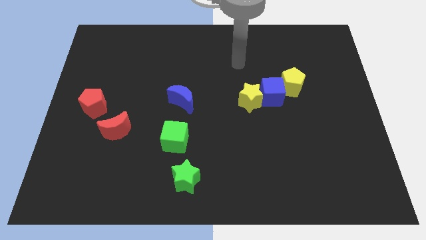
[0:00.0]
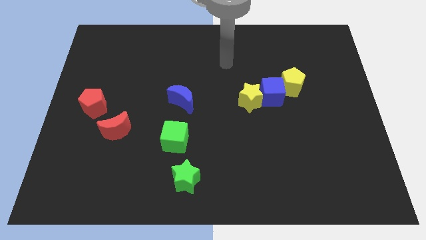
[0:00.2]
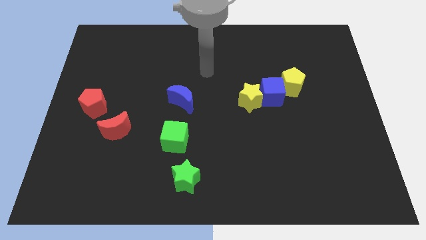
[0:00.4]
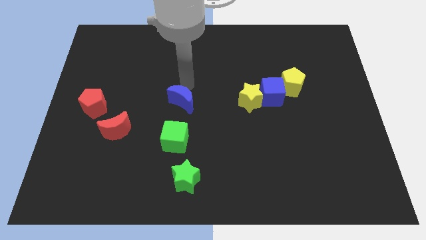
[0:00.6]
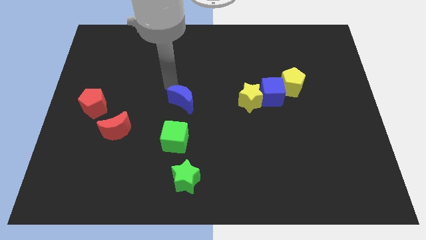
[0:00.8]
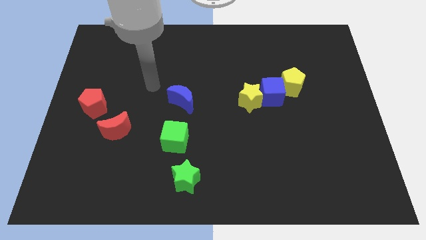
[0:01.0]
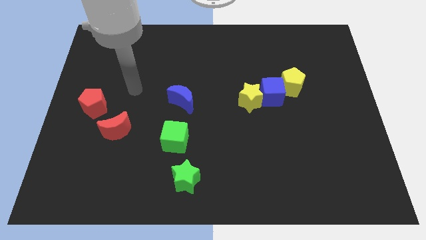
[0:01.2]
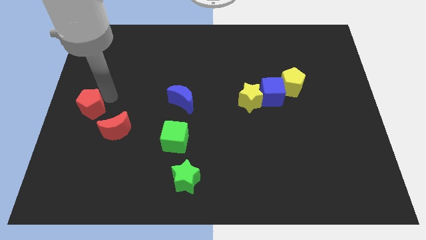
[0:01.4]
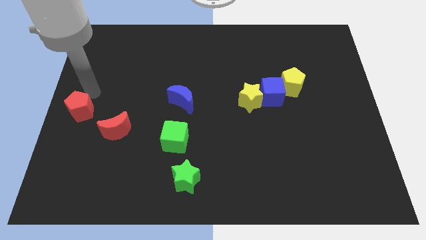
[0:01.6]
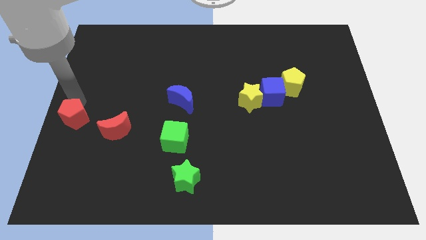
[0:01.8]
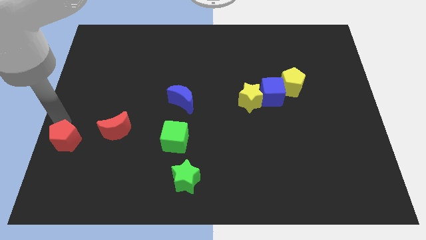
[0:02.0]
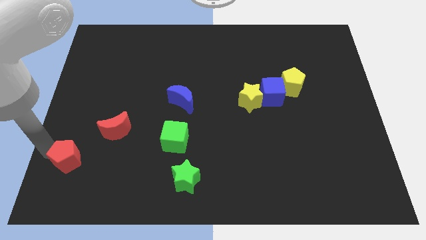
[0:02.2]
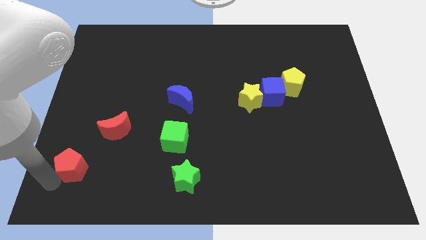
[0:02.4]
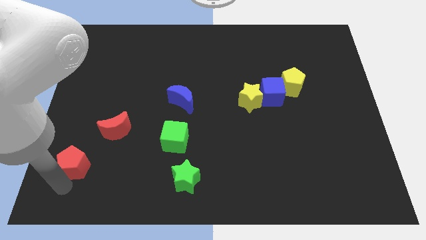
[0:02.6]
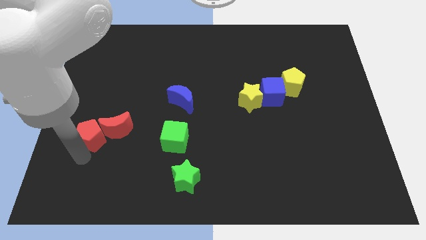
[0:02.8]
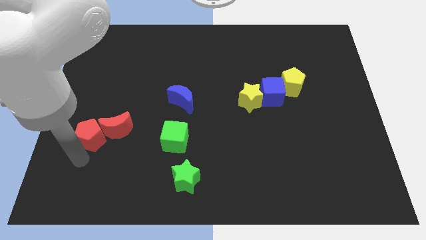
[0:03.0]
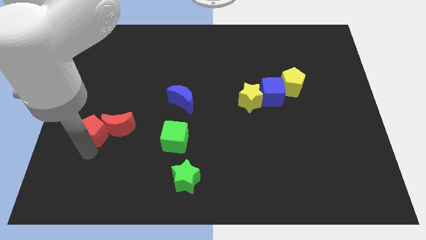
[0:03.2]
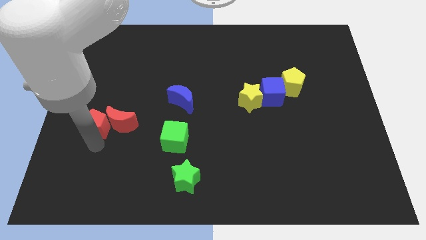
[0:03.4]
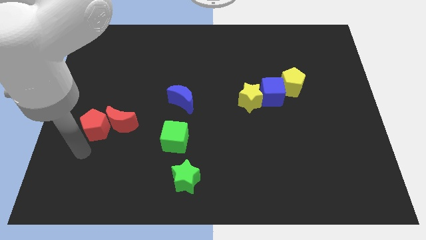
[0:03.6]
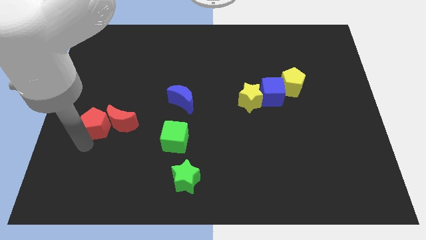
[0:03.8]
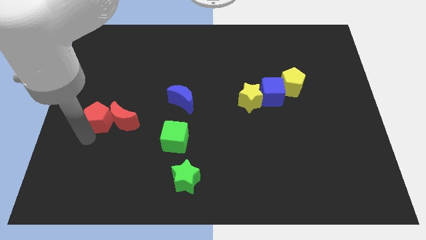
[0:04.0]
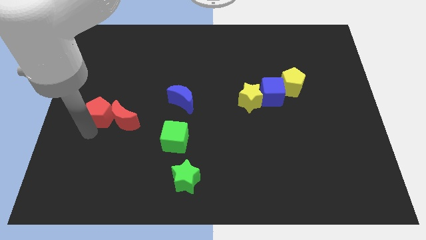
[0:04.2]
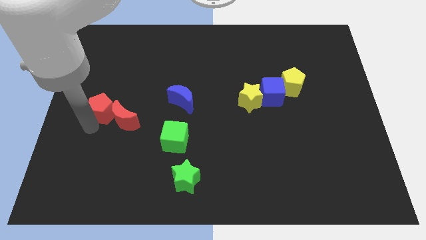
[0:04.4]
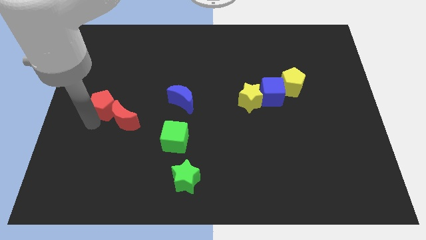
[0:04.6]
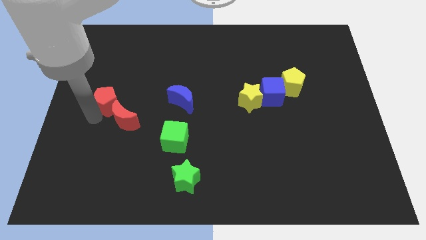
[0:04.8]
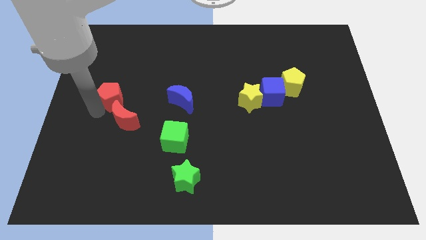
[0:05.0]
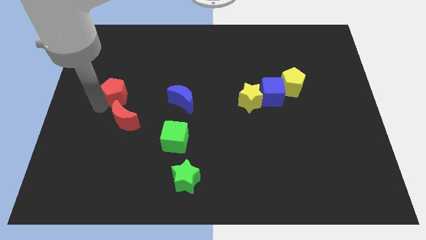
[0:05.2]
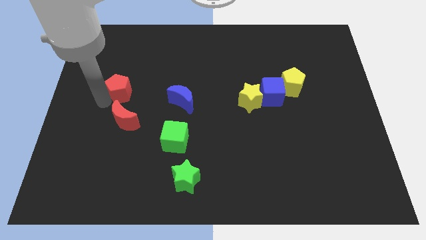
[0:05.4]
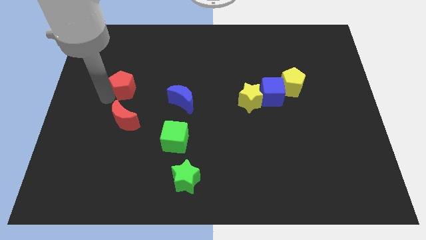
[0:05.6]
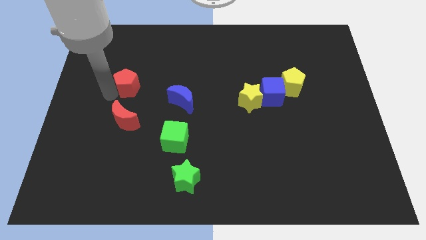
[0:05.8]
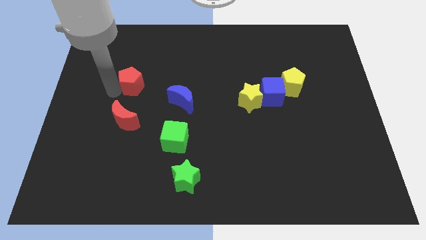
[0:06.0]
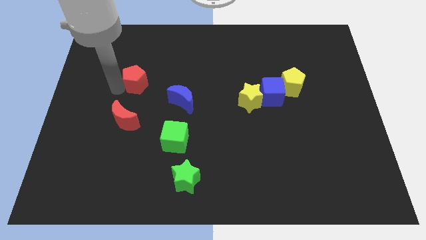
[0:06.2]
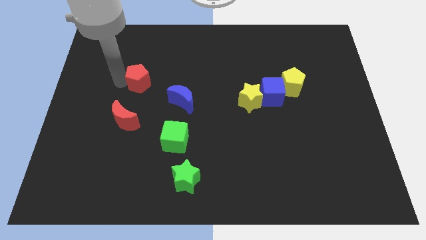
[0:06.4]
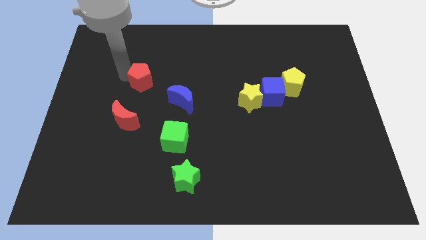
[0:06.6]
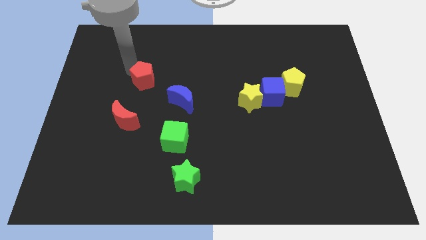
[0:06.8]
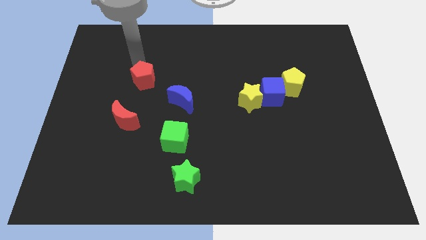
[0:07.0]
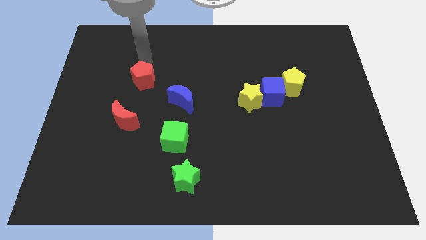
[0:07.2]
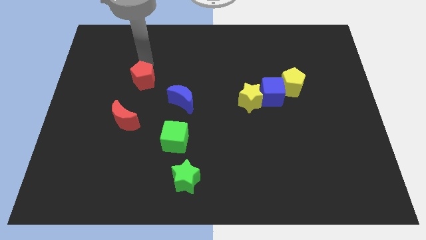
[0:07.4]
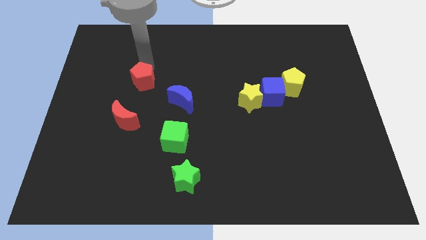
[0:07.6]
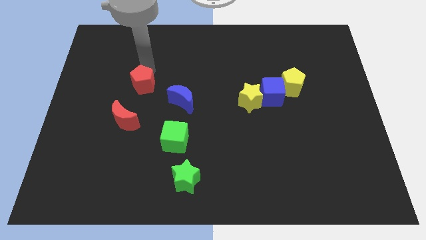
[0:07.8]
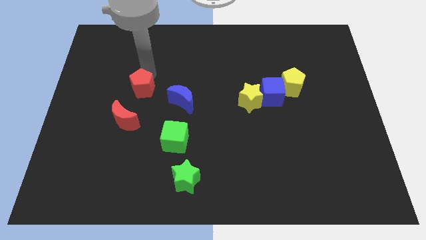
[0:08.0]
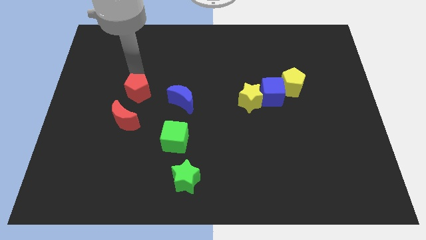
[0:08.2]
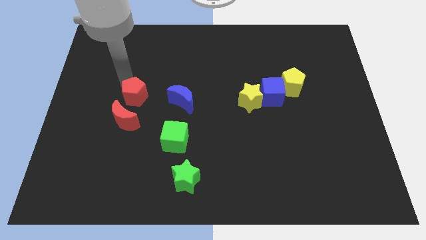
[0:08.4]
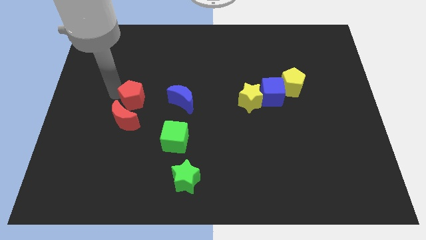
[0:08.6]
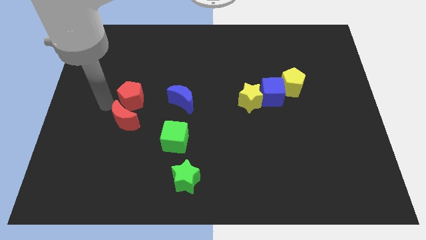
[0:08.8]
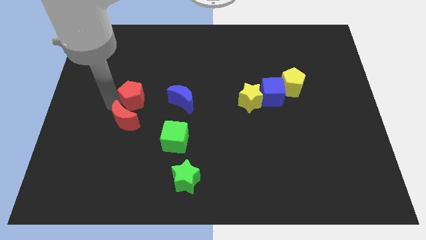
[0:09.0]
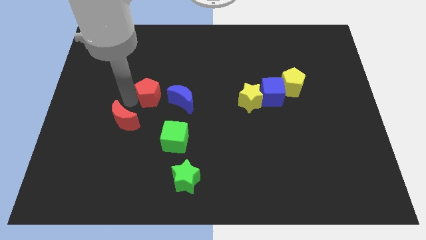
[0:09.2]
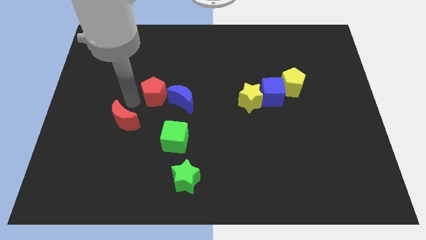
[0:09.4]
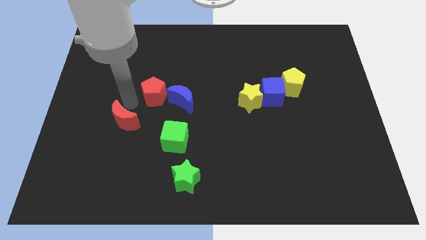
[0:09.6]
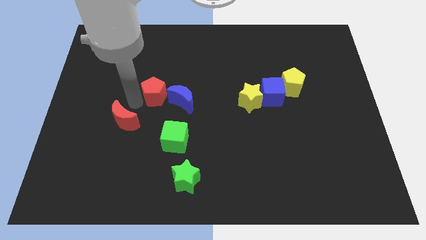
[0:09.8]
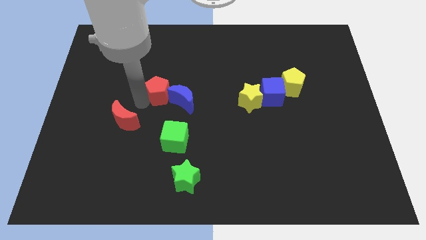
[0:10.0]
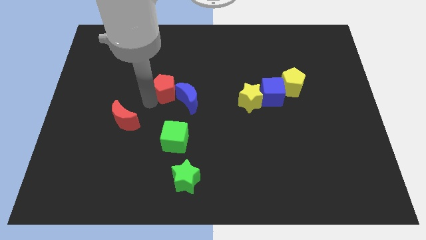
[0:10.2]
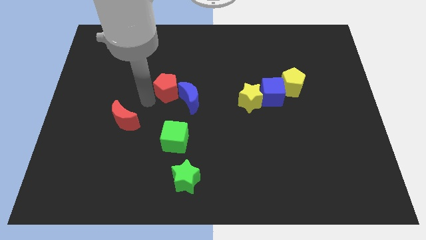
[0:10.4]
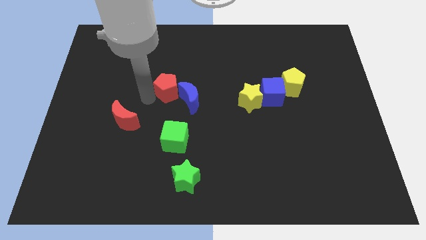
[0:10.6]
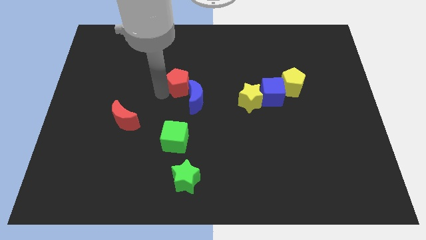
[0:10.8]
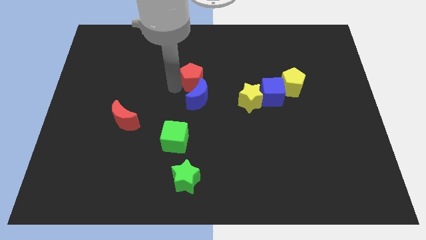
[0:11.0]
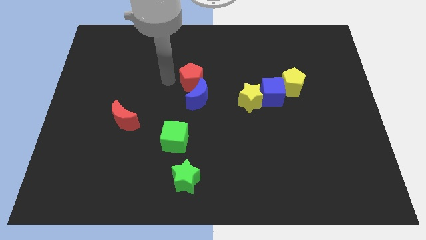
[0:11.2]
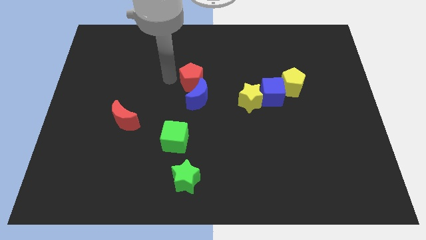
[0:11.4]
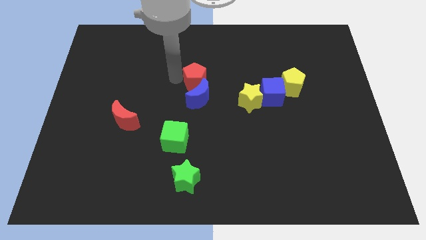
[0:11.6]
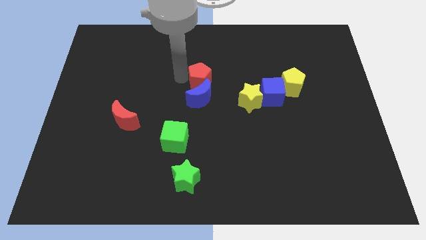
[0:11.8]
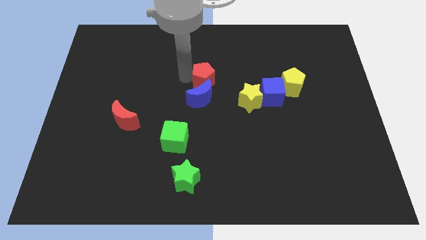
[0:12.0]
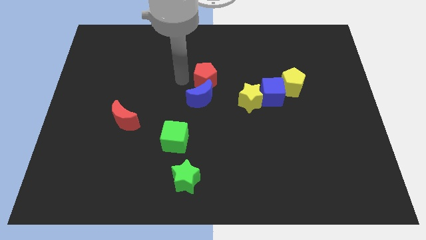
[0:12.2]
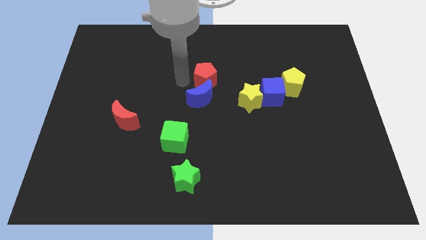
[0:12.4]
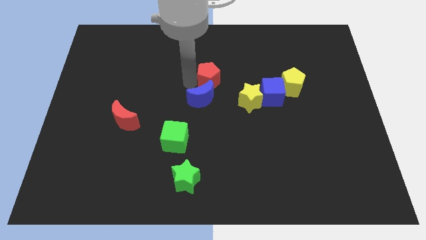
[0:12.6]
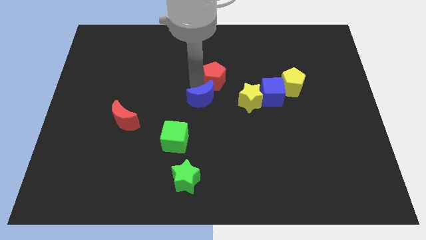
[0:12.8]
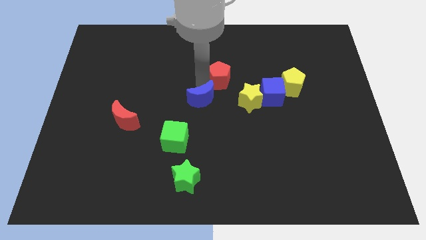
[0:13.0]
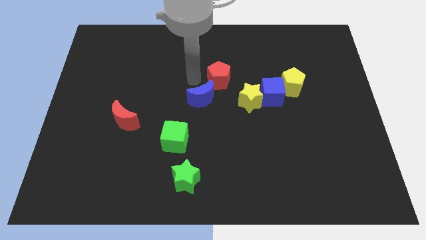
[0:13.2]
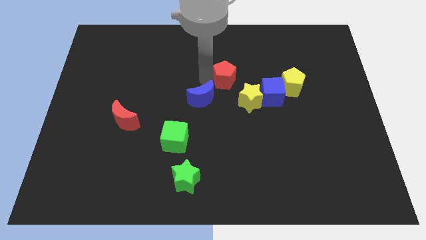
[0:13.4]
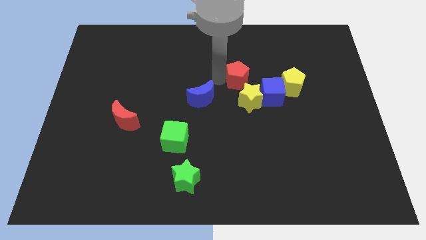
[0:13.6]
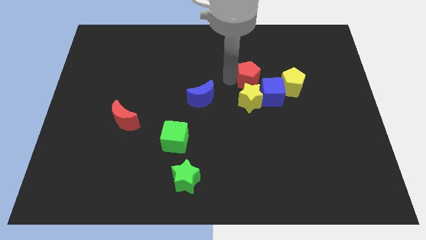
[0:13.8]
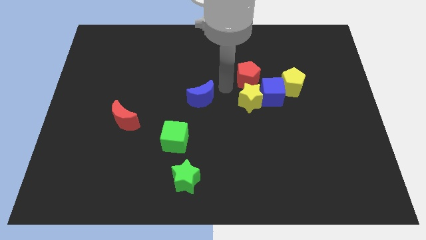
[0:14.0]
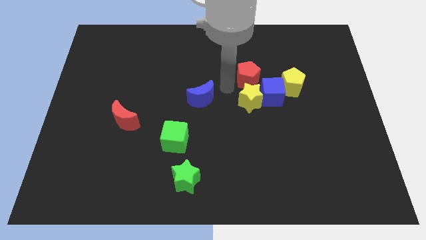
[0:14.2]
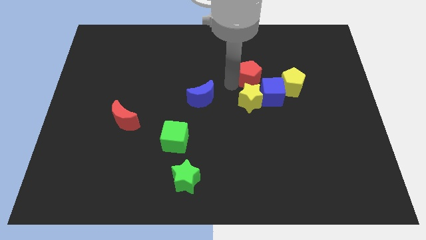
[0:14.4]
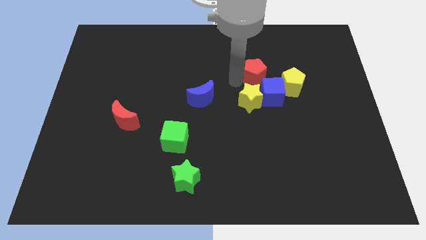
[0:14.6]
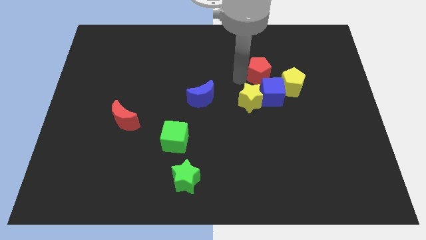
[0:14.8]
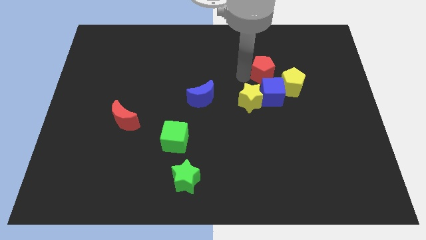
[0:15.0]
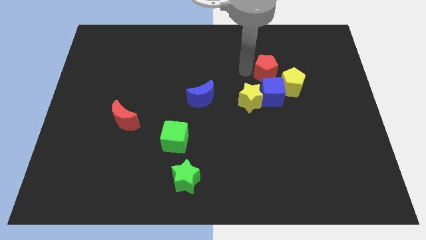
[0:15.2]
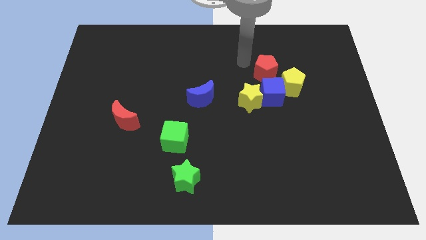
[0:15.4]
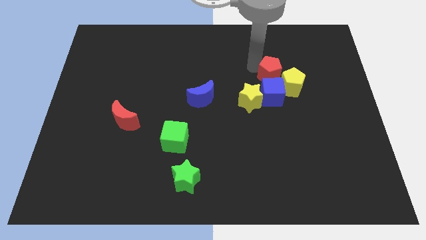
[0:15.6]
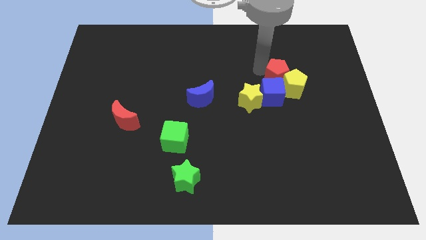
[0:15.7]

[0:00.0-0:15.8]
slide the red pentagon to the yellow pentagon
